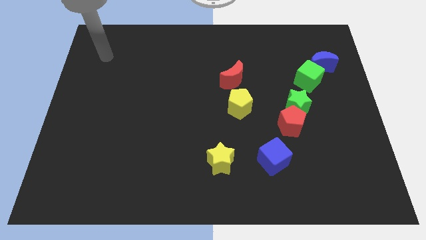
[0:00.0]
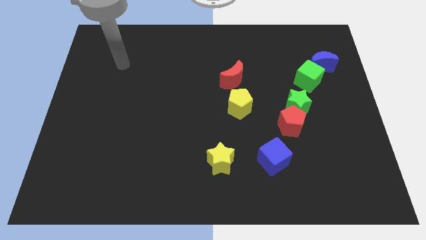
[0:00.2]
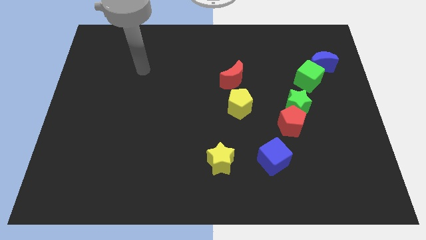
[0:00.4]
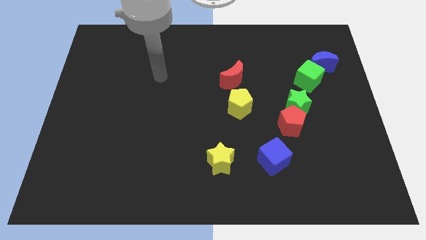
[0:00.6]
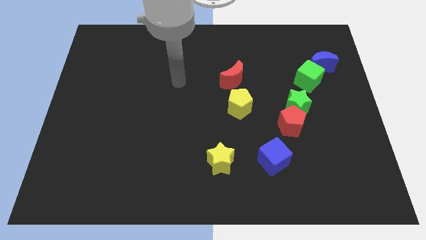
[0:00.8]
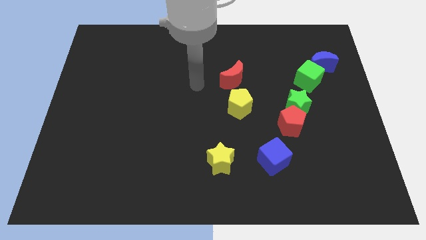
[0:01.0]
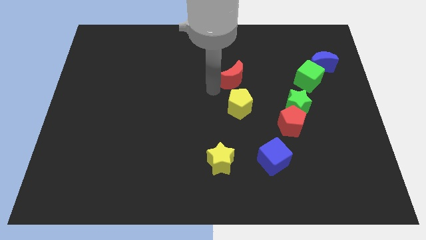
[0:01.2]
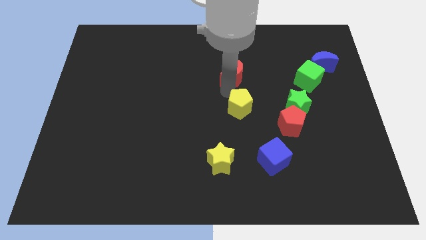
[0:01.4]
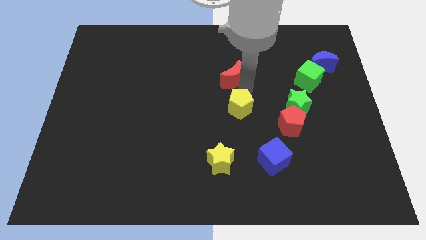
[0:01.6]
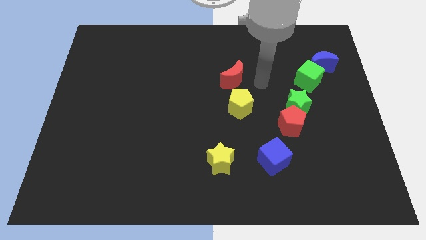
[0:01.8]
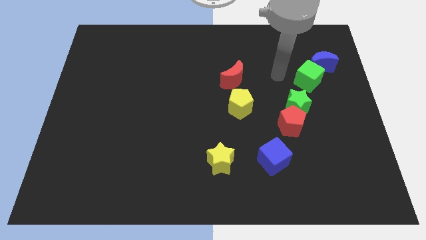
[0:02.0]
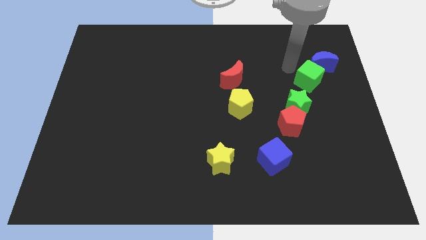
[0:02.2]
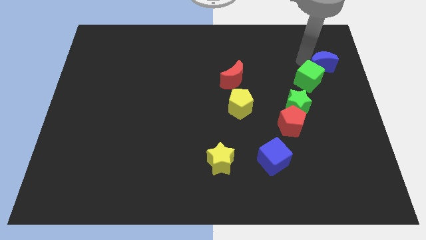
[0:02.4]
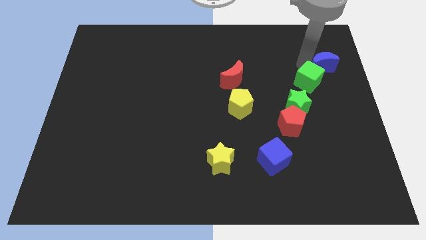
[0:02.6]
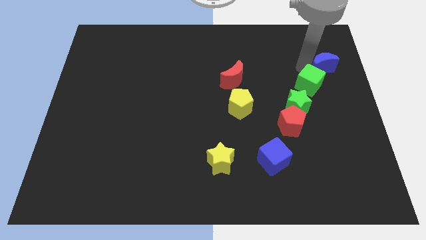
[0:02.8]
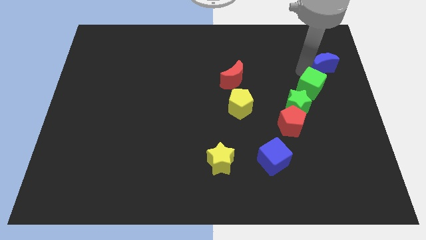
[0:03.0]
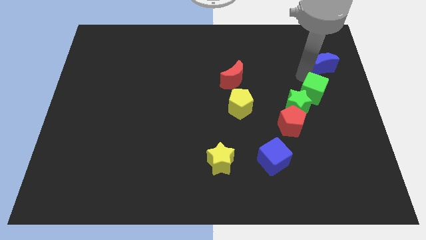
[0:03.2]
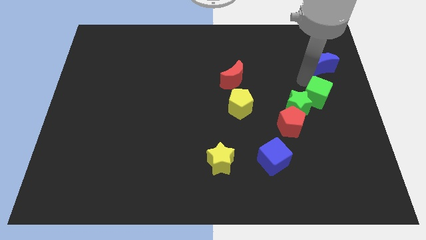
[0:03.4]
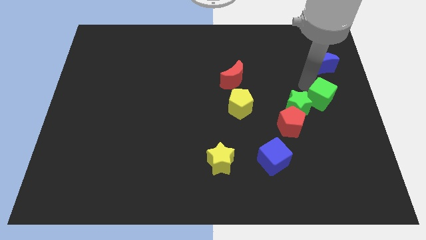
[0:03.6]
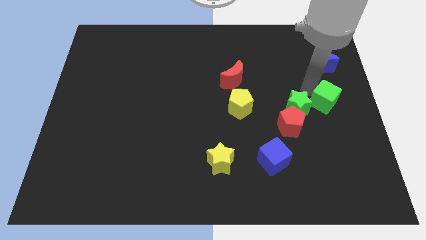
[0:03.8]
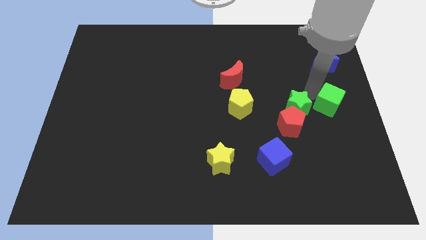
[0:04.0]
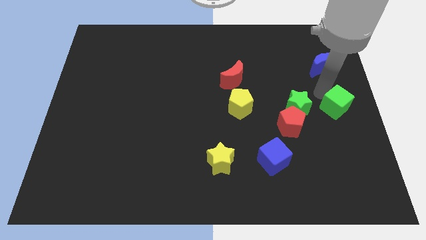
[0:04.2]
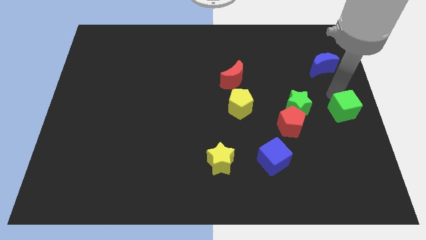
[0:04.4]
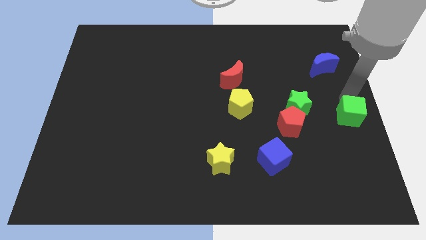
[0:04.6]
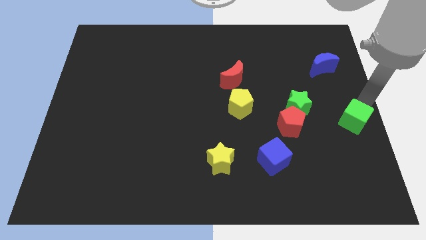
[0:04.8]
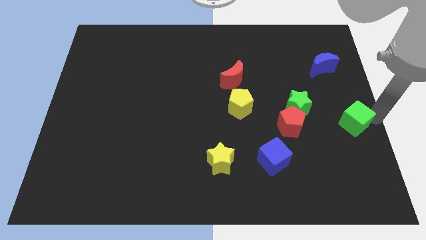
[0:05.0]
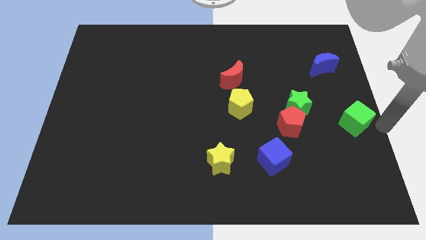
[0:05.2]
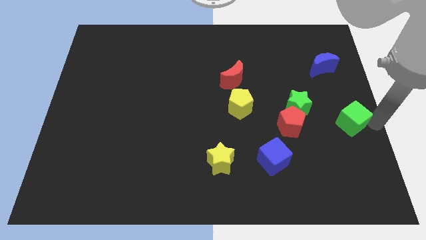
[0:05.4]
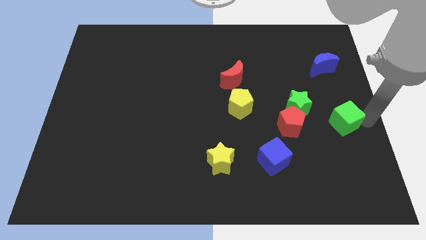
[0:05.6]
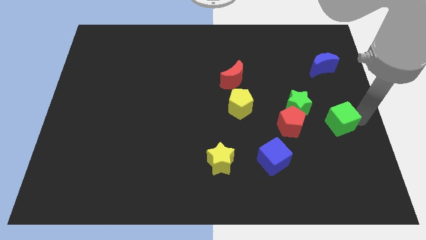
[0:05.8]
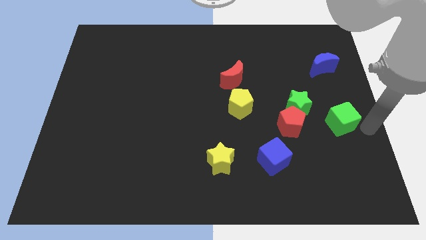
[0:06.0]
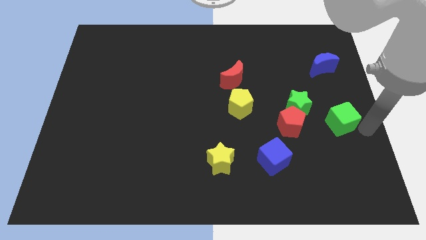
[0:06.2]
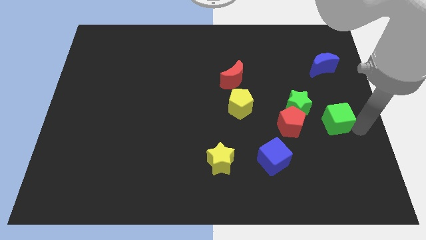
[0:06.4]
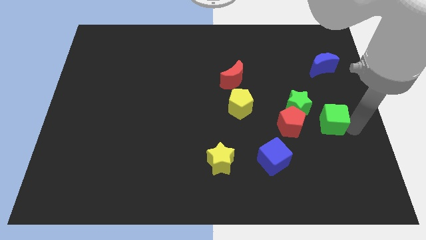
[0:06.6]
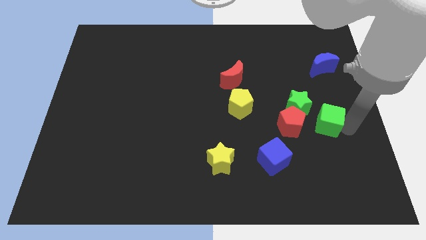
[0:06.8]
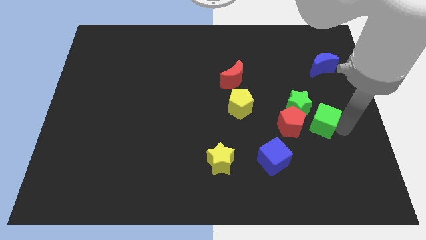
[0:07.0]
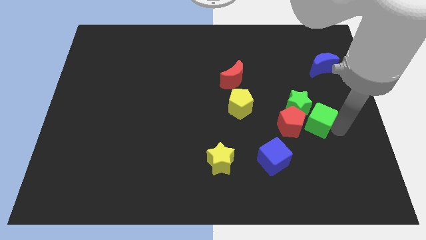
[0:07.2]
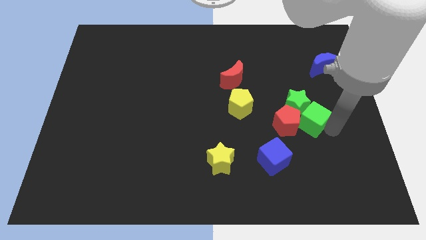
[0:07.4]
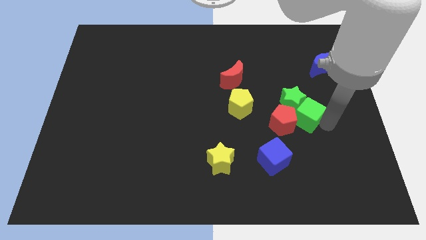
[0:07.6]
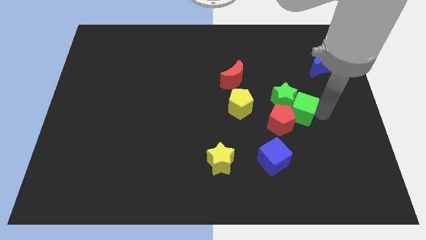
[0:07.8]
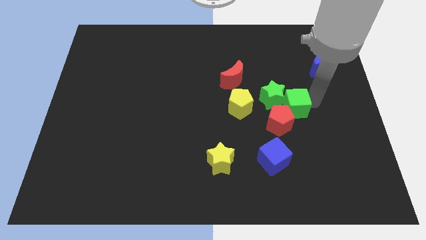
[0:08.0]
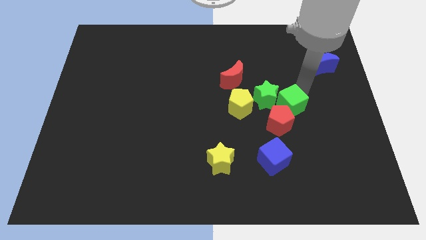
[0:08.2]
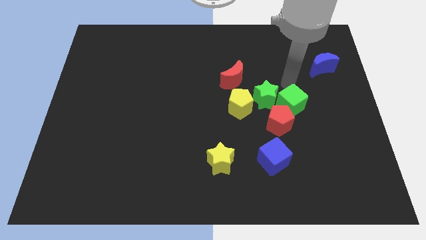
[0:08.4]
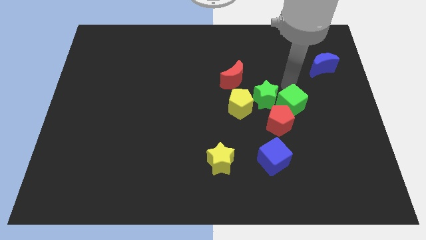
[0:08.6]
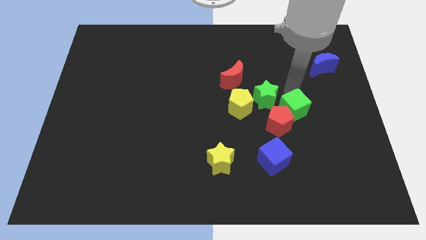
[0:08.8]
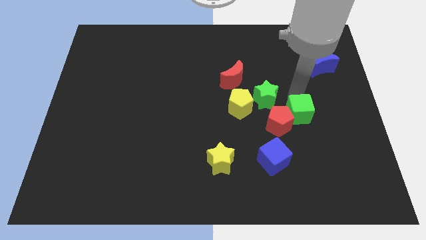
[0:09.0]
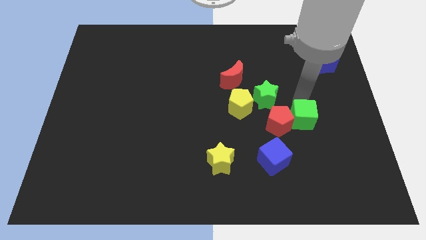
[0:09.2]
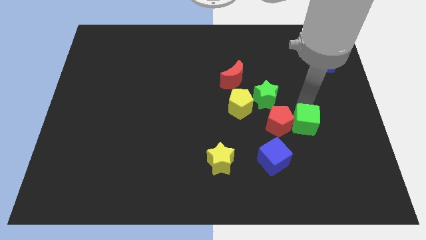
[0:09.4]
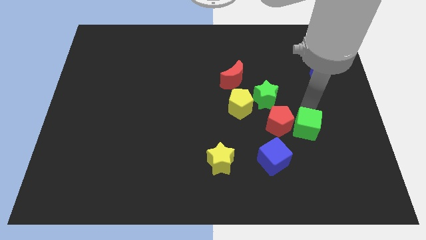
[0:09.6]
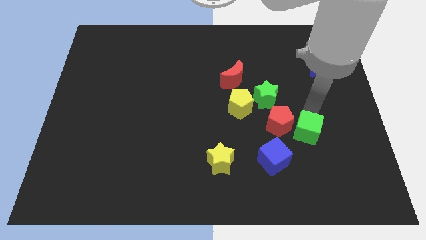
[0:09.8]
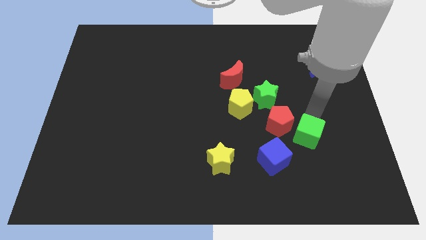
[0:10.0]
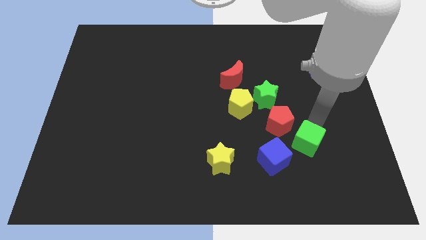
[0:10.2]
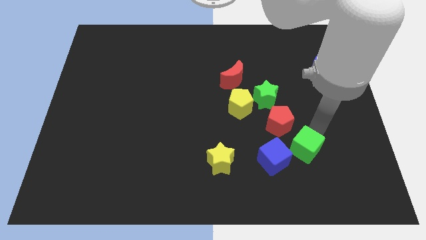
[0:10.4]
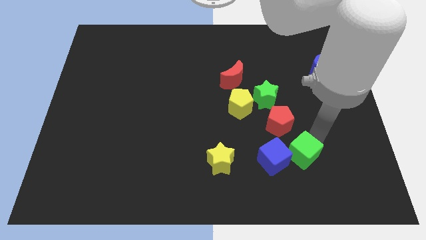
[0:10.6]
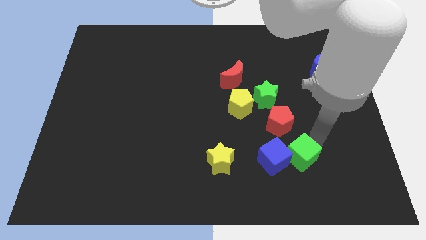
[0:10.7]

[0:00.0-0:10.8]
put the green cube close to the blue cube

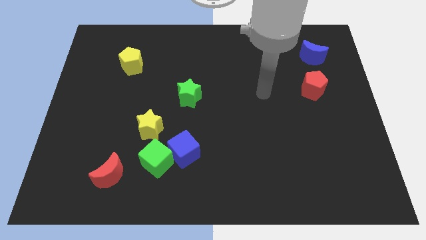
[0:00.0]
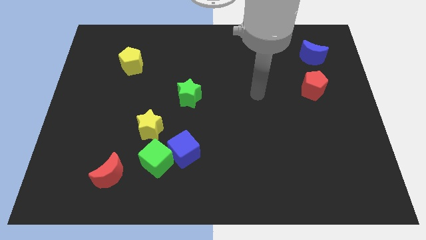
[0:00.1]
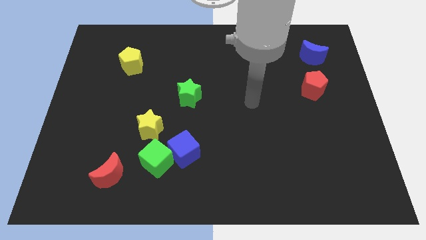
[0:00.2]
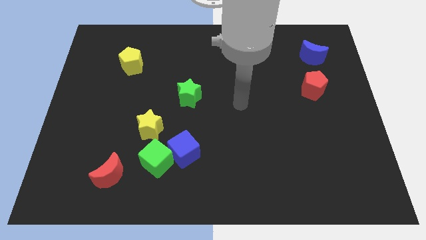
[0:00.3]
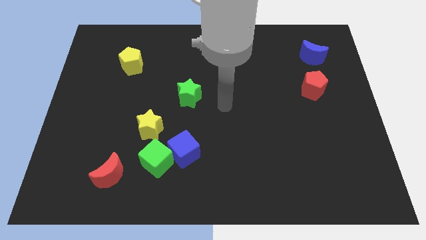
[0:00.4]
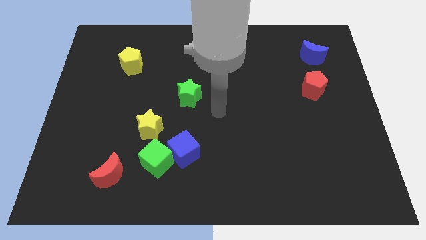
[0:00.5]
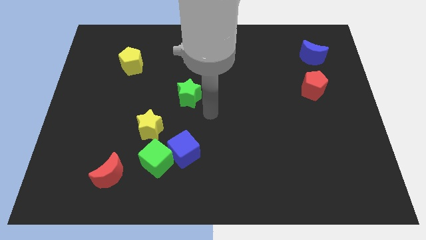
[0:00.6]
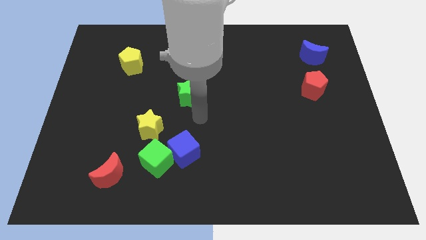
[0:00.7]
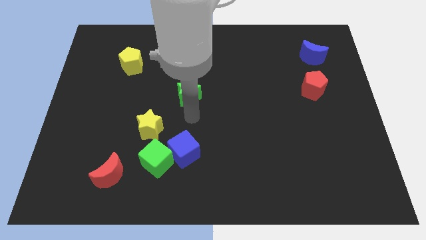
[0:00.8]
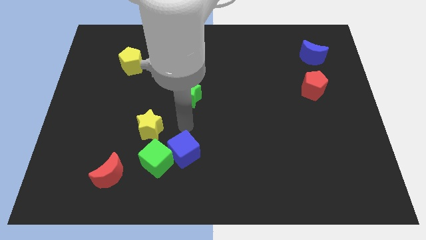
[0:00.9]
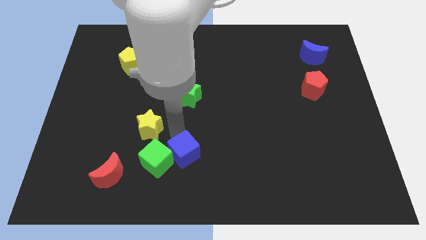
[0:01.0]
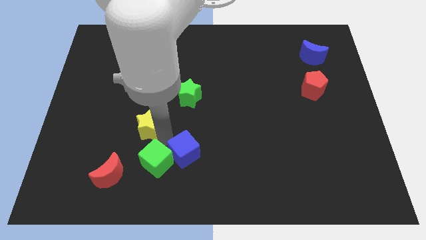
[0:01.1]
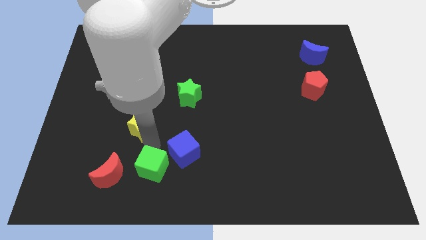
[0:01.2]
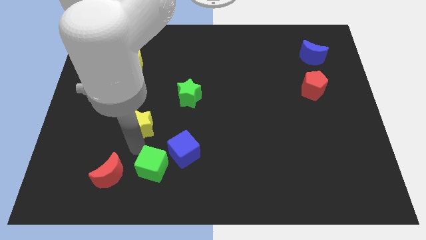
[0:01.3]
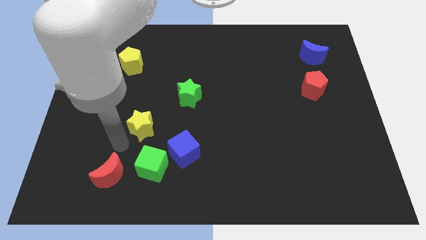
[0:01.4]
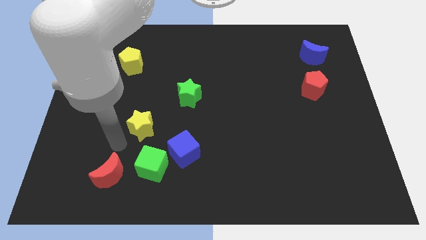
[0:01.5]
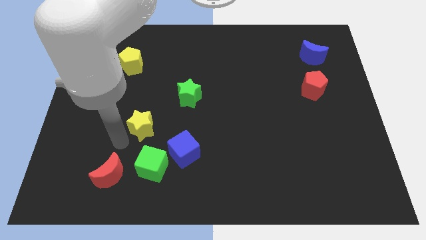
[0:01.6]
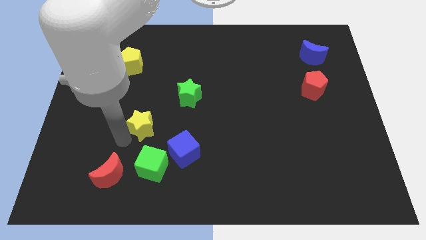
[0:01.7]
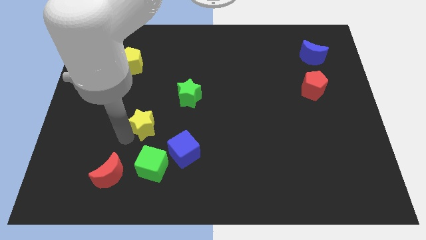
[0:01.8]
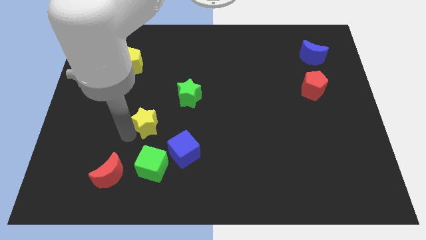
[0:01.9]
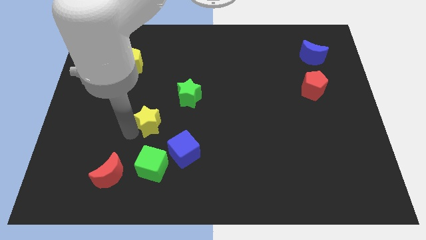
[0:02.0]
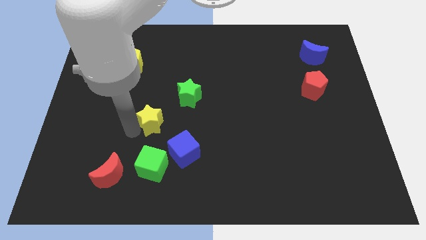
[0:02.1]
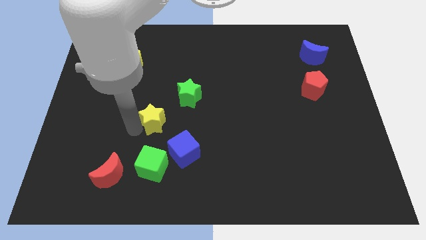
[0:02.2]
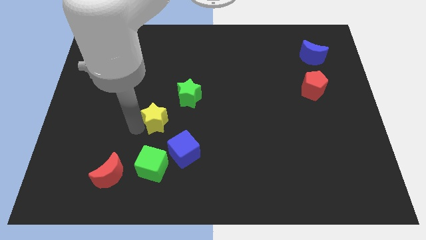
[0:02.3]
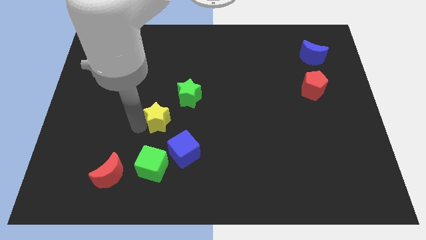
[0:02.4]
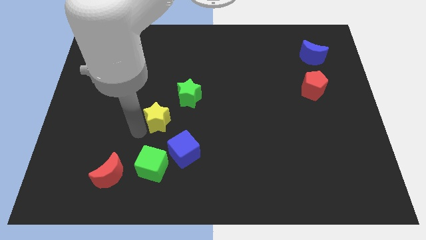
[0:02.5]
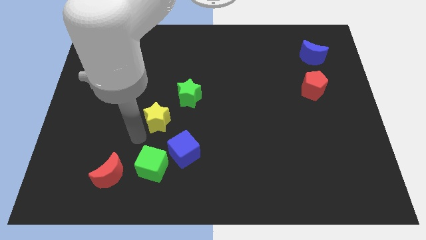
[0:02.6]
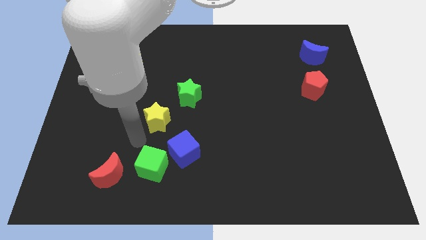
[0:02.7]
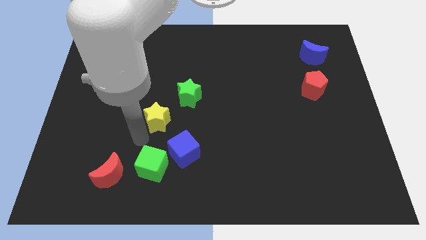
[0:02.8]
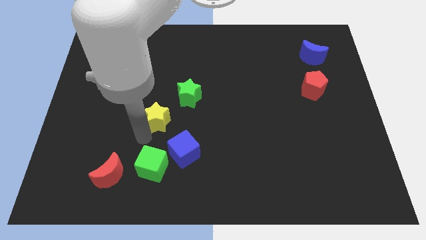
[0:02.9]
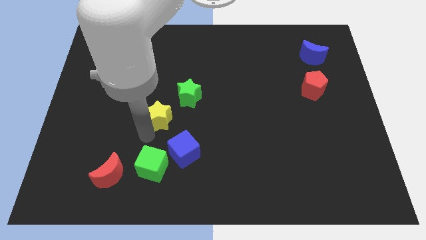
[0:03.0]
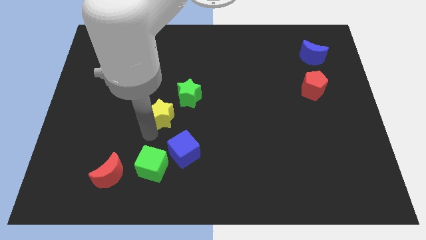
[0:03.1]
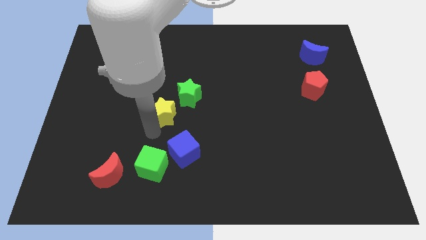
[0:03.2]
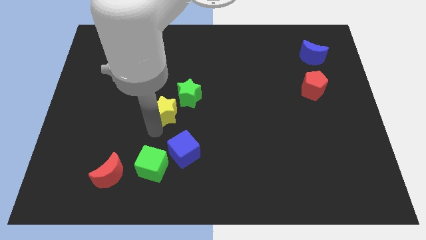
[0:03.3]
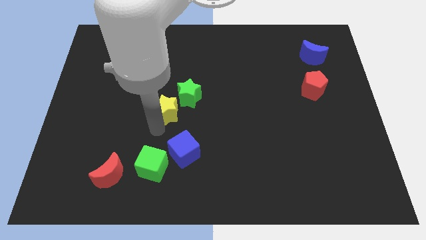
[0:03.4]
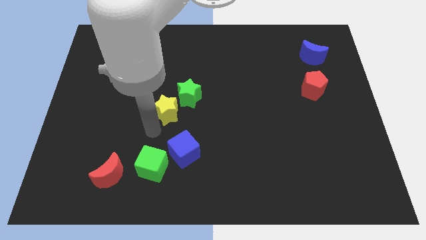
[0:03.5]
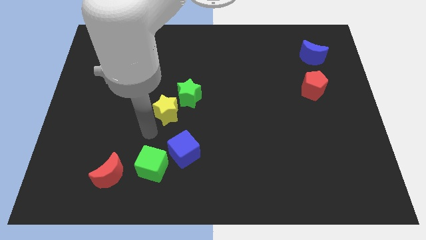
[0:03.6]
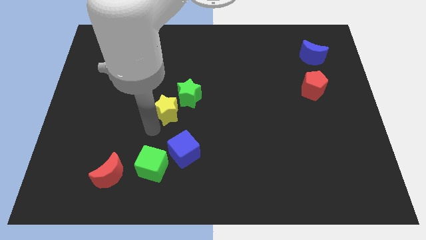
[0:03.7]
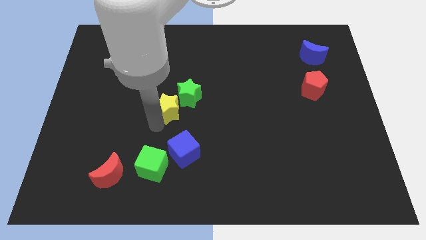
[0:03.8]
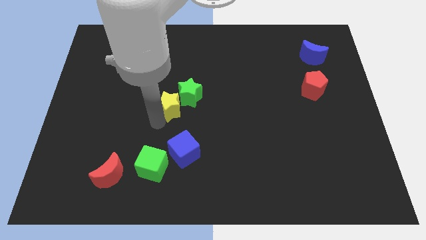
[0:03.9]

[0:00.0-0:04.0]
move the yellow star next to the green star
